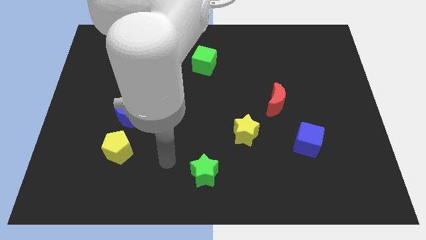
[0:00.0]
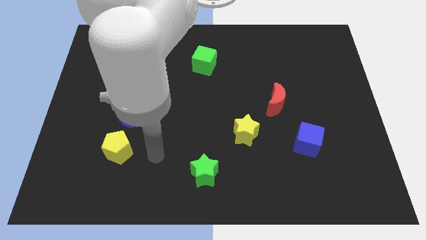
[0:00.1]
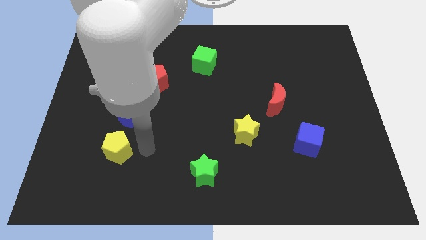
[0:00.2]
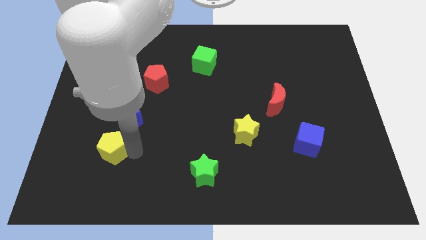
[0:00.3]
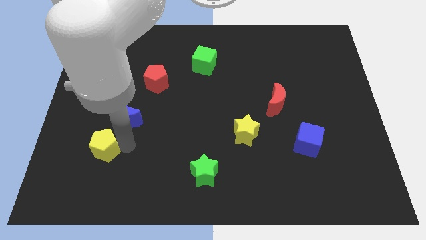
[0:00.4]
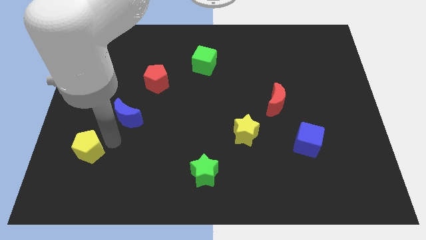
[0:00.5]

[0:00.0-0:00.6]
separate the blue moon from the yellow pentagon

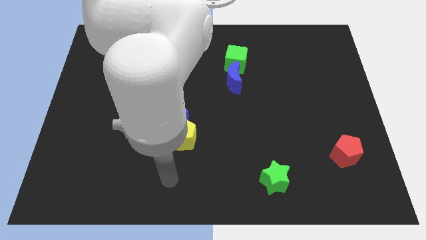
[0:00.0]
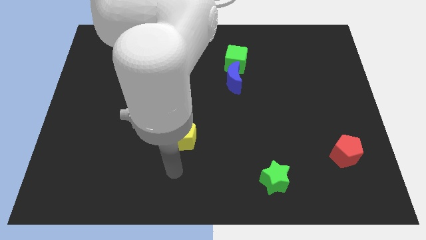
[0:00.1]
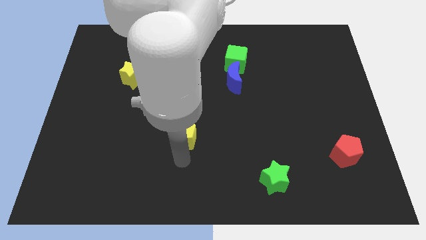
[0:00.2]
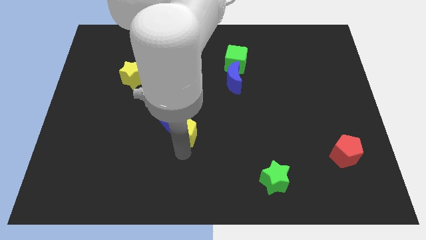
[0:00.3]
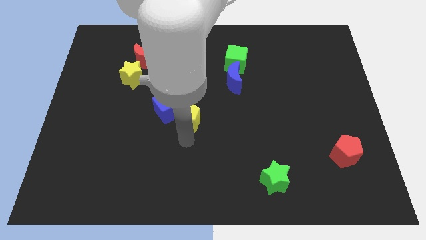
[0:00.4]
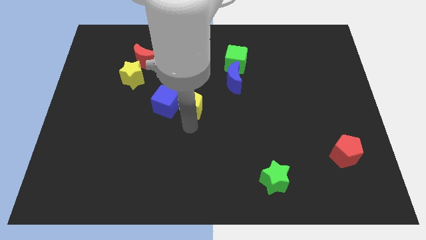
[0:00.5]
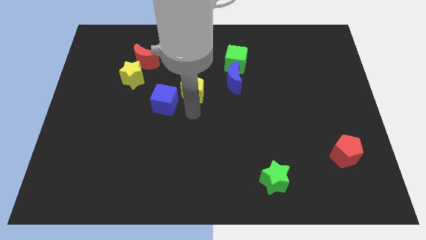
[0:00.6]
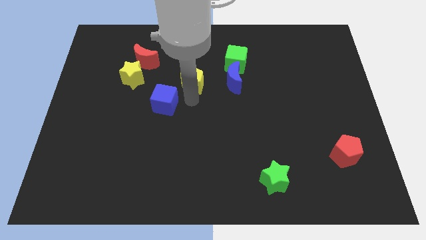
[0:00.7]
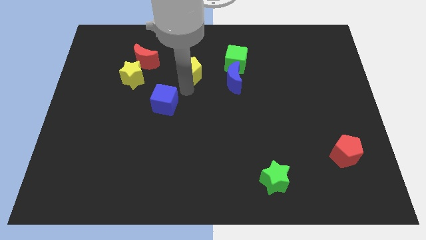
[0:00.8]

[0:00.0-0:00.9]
move the blue cube away from the yellow pentagon

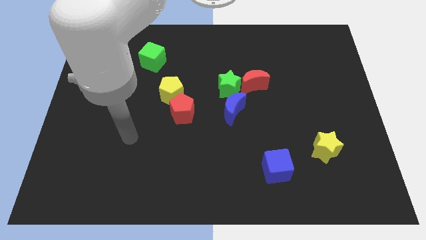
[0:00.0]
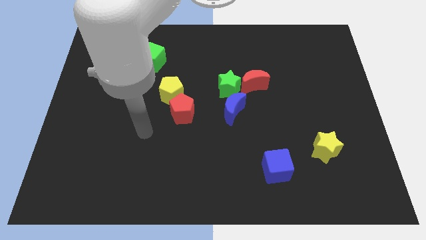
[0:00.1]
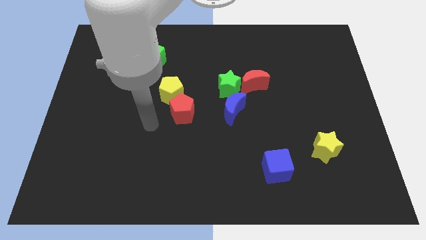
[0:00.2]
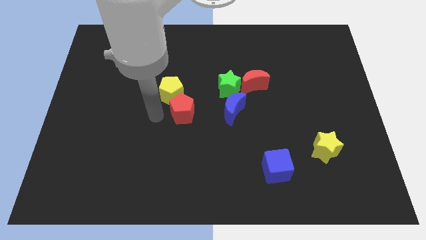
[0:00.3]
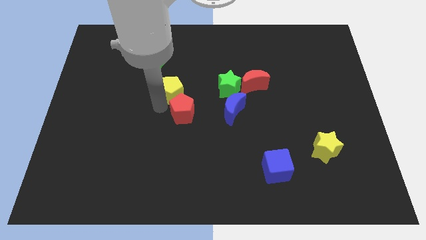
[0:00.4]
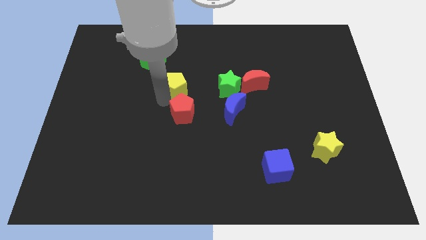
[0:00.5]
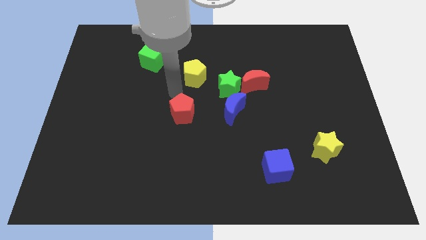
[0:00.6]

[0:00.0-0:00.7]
separate the red pentagon from the yellow pentagon

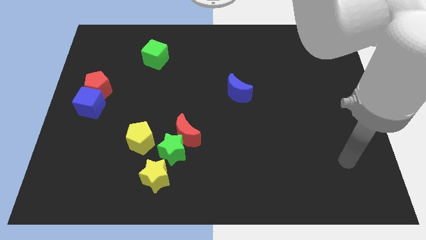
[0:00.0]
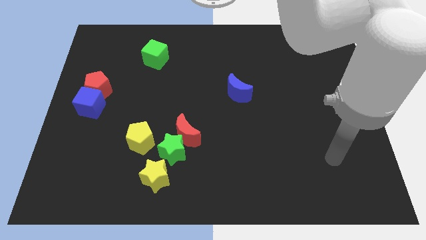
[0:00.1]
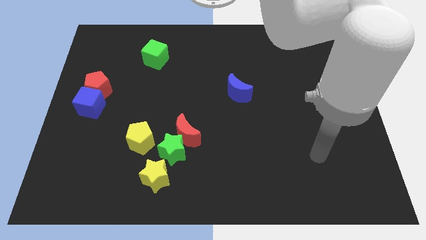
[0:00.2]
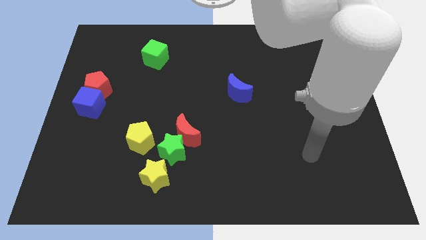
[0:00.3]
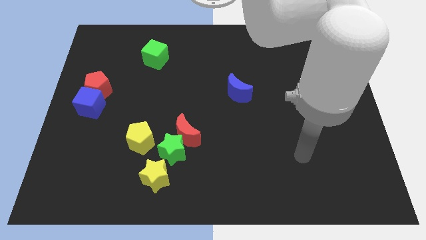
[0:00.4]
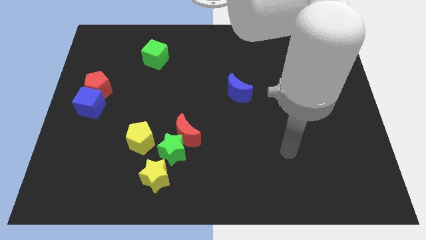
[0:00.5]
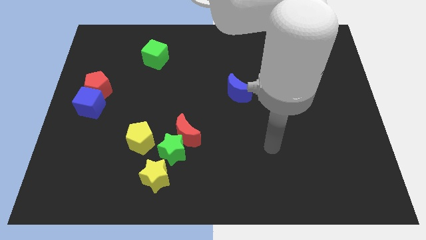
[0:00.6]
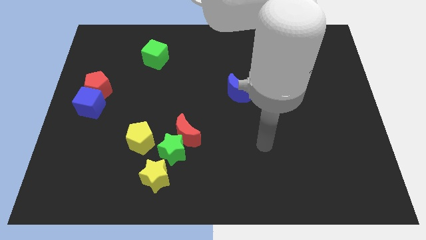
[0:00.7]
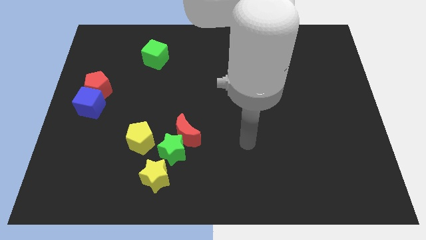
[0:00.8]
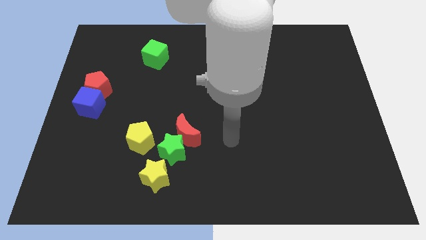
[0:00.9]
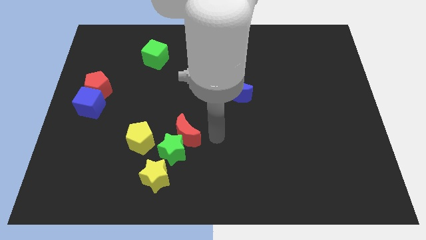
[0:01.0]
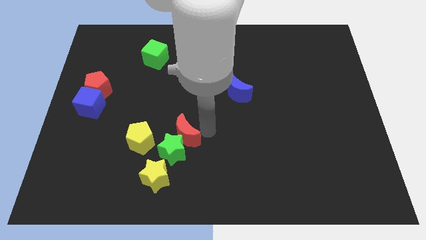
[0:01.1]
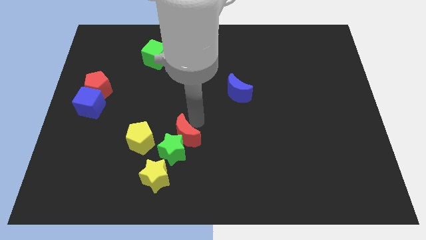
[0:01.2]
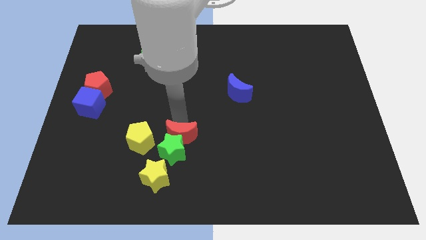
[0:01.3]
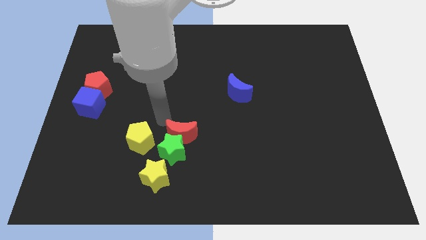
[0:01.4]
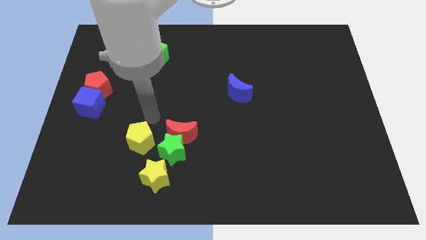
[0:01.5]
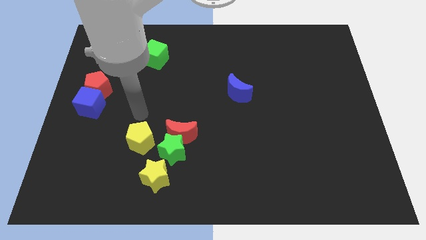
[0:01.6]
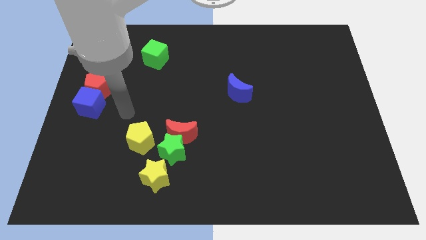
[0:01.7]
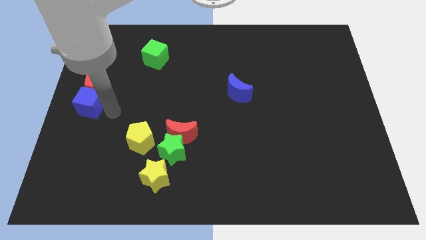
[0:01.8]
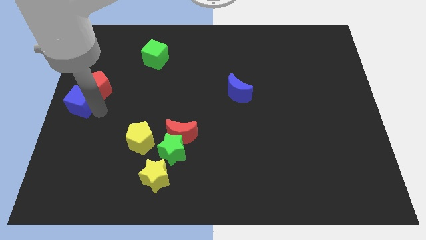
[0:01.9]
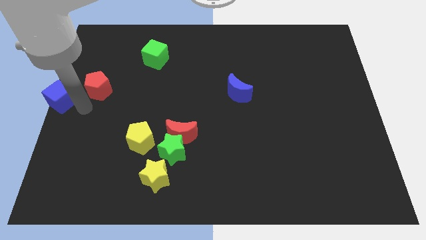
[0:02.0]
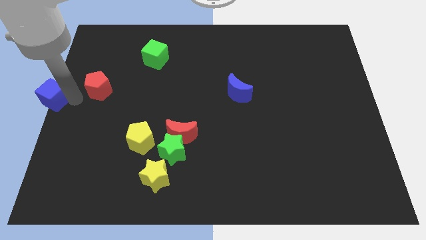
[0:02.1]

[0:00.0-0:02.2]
separate the red pentagon from the blue cube

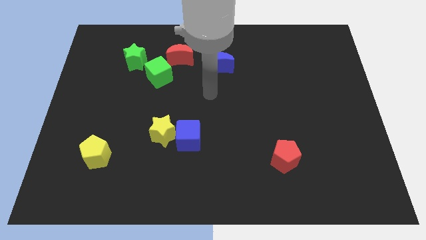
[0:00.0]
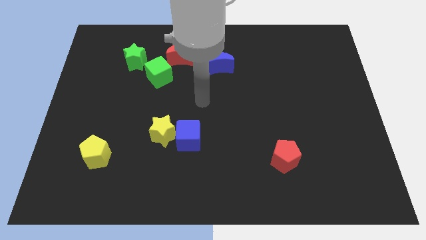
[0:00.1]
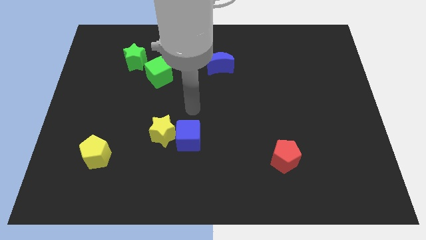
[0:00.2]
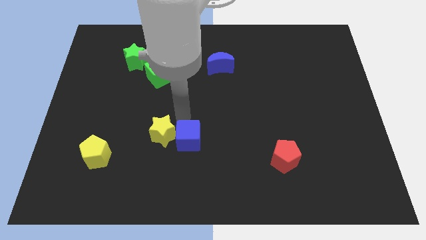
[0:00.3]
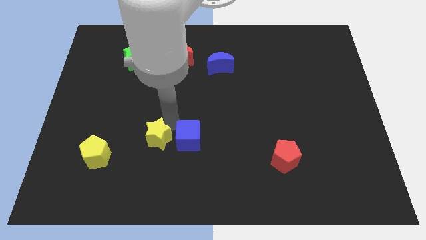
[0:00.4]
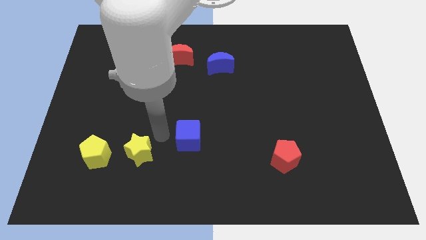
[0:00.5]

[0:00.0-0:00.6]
move the blue cube away from the yellow star

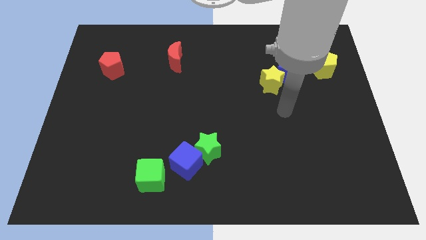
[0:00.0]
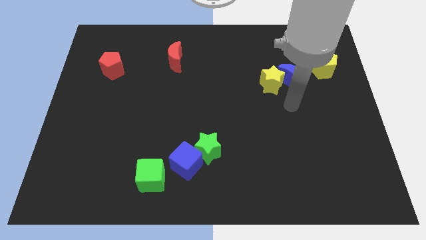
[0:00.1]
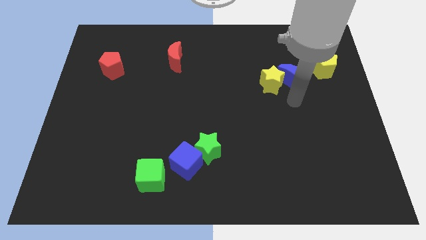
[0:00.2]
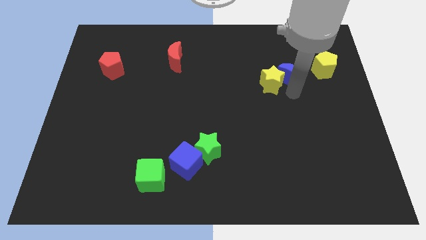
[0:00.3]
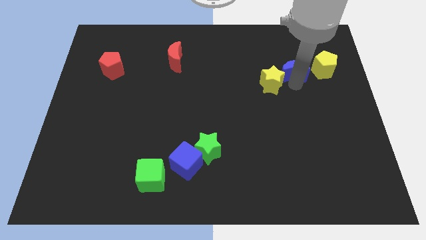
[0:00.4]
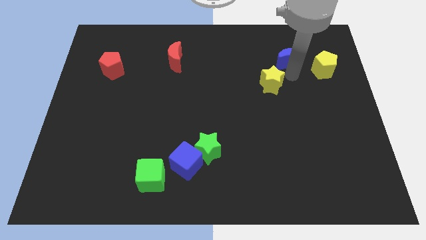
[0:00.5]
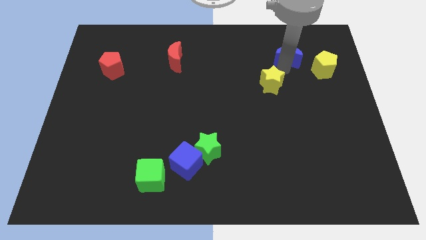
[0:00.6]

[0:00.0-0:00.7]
separate the yellow star from the blue moon

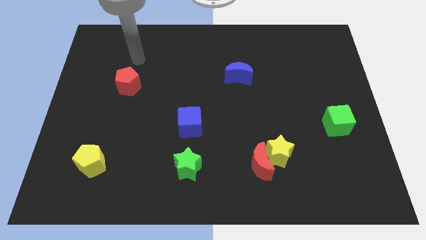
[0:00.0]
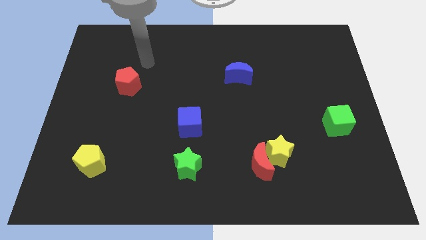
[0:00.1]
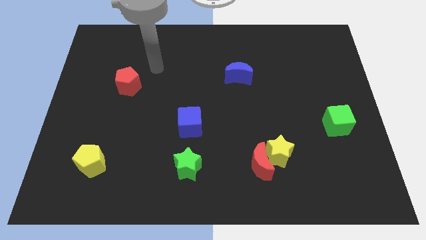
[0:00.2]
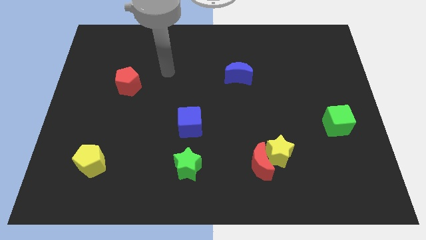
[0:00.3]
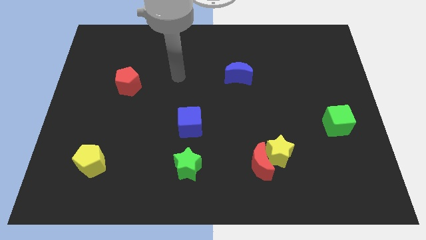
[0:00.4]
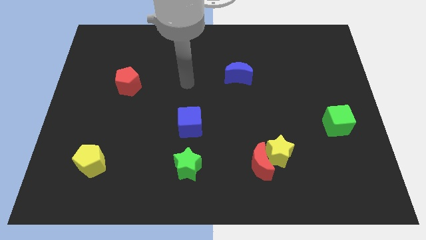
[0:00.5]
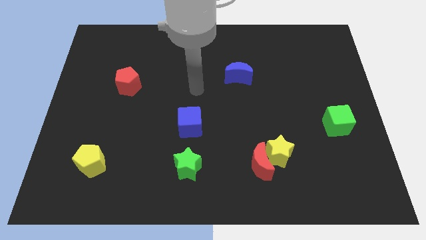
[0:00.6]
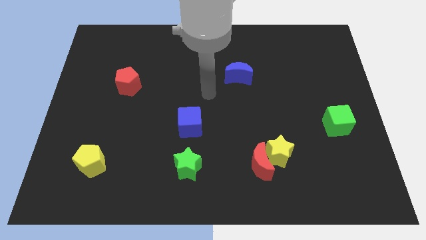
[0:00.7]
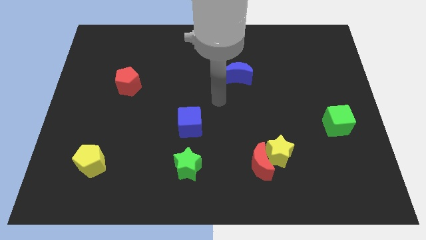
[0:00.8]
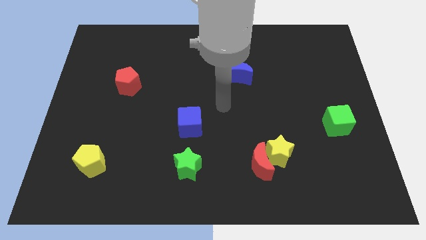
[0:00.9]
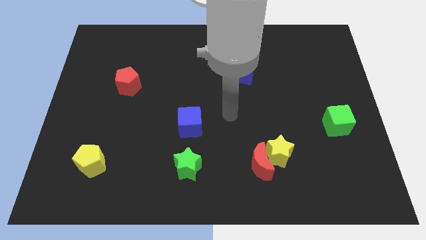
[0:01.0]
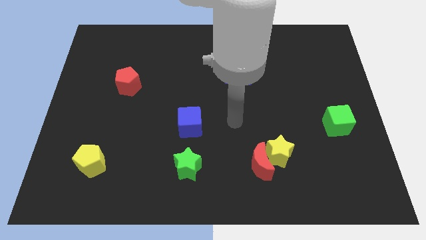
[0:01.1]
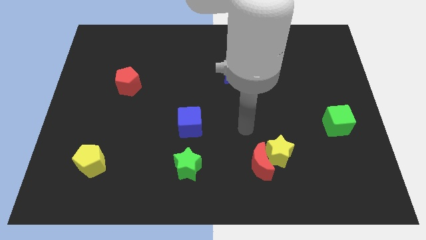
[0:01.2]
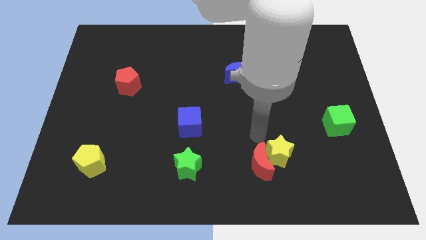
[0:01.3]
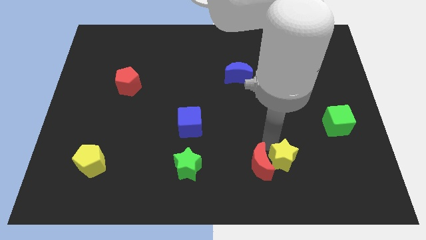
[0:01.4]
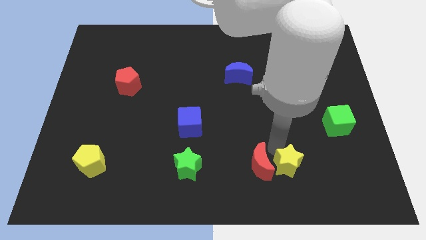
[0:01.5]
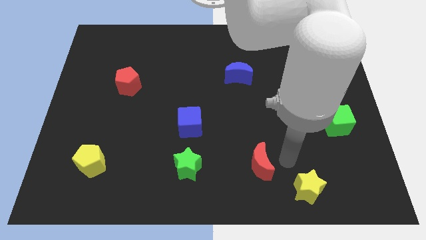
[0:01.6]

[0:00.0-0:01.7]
pull the red moon apart from the yellow star

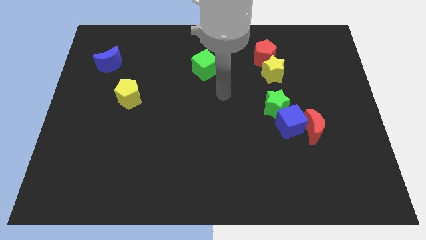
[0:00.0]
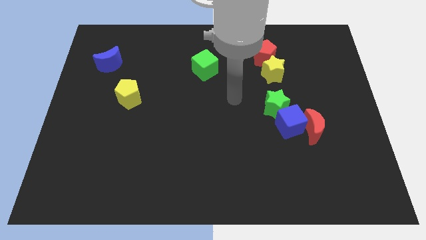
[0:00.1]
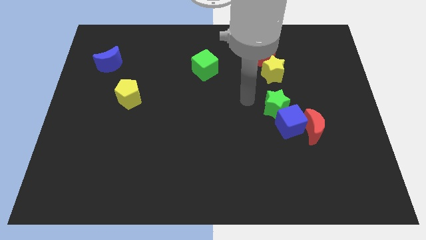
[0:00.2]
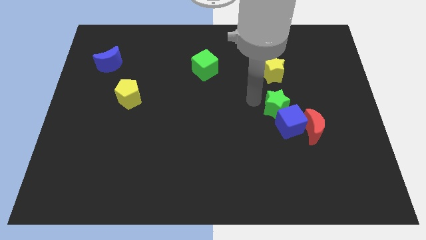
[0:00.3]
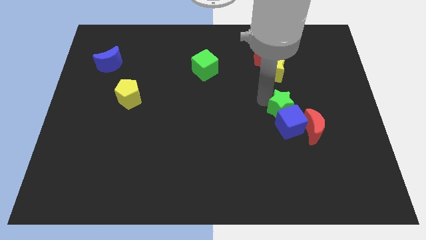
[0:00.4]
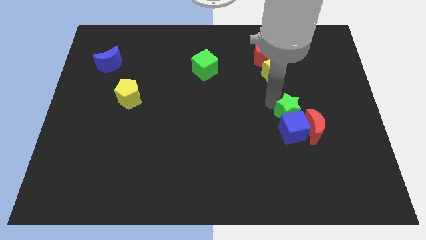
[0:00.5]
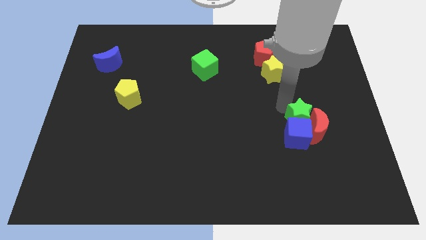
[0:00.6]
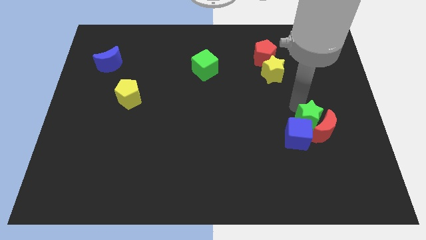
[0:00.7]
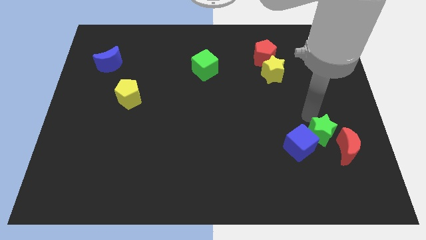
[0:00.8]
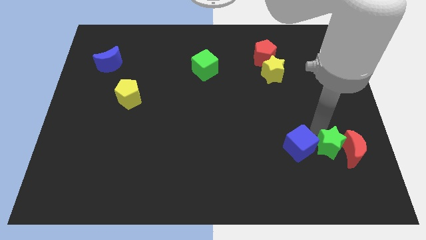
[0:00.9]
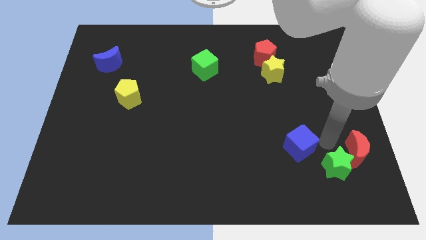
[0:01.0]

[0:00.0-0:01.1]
move the blue cube away from the red moon and green star

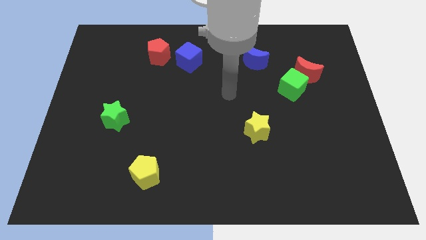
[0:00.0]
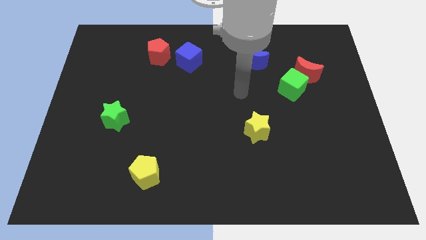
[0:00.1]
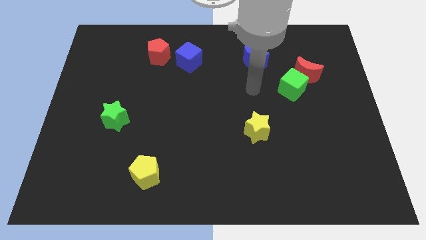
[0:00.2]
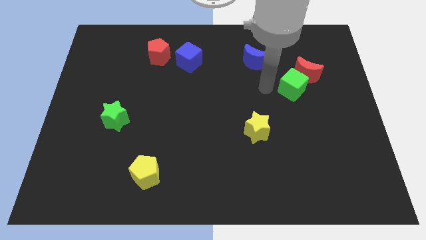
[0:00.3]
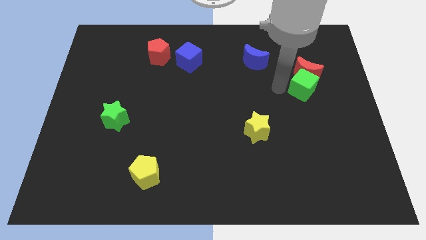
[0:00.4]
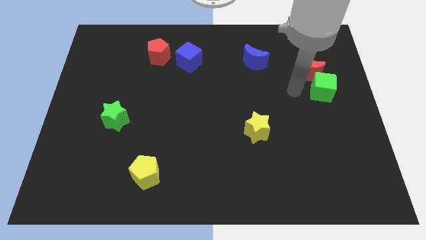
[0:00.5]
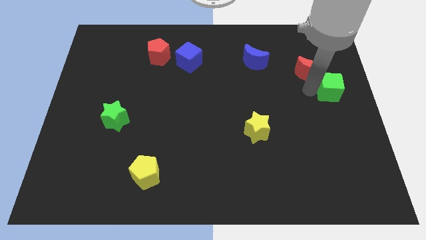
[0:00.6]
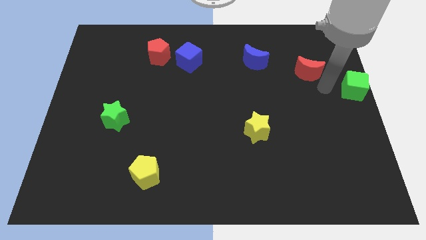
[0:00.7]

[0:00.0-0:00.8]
pull the red moon apart from the green cube
